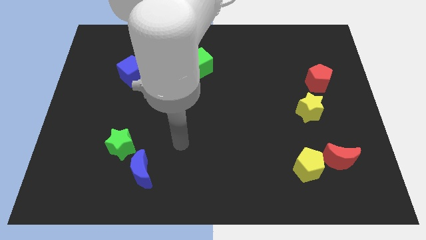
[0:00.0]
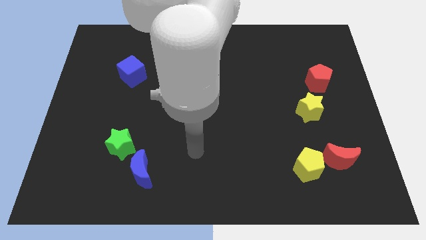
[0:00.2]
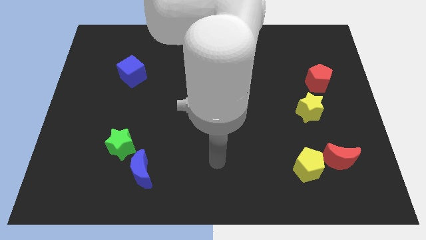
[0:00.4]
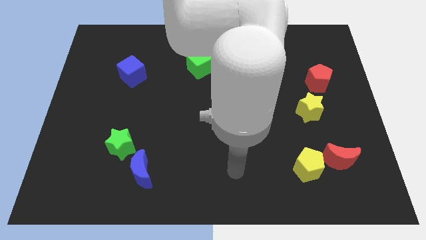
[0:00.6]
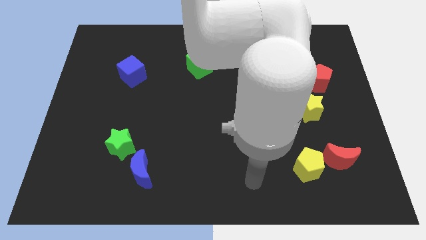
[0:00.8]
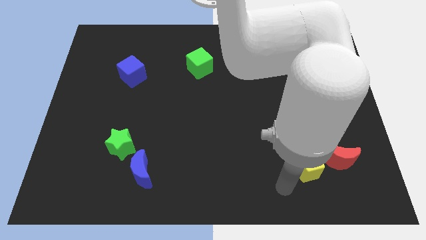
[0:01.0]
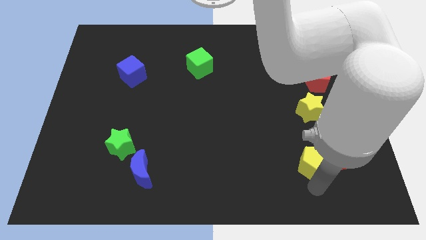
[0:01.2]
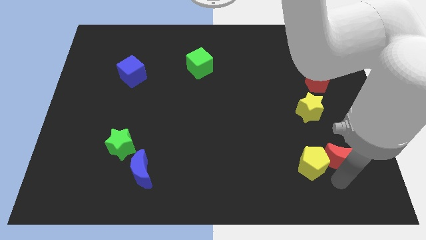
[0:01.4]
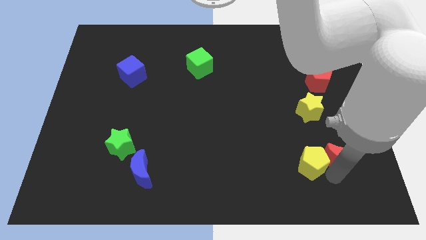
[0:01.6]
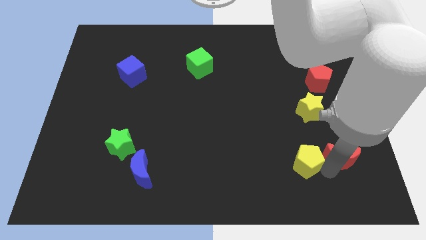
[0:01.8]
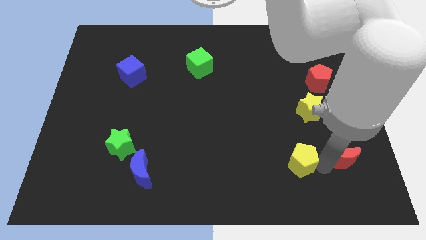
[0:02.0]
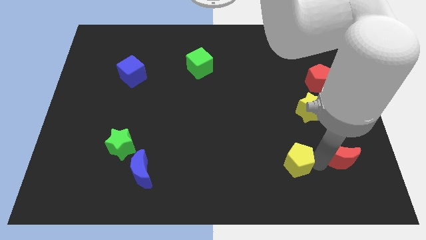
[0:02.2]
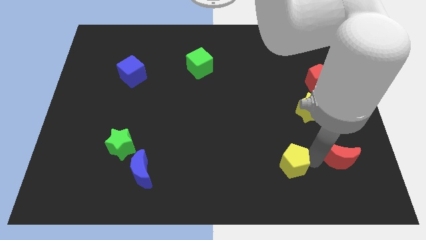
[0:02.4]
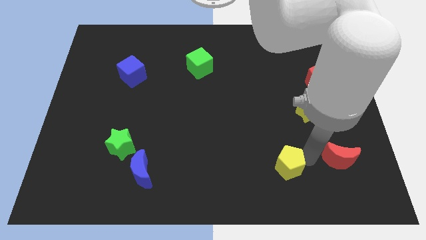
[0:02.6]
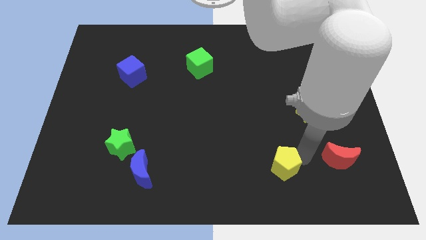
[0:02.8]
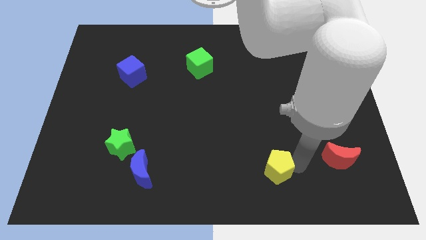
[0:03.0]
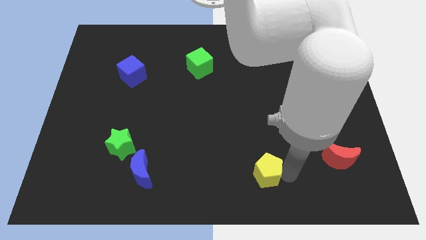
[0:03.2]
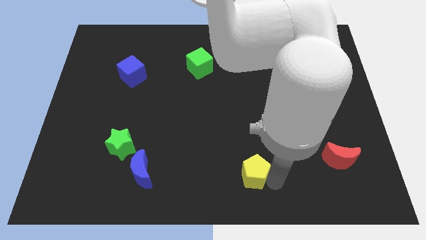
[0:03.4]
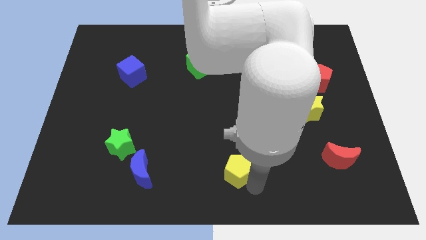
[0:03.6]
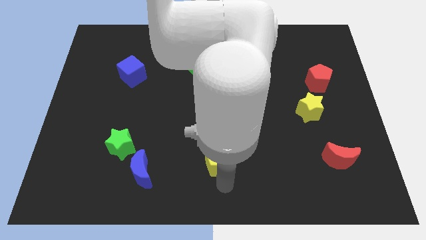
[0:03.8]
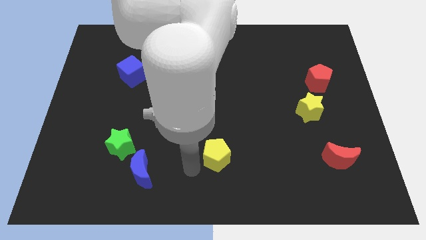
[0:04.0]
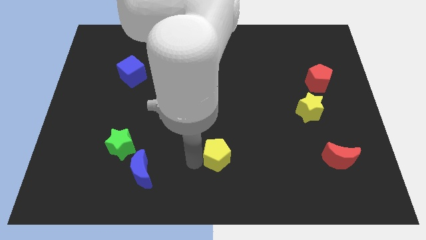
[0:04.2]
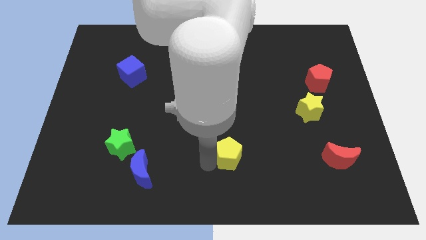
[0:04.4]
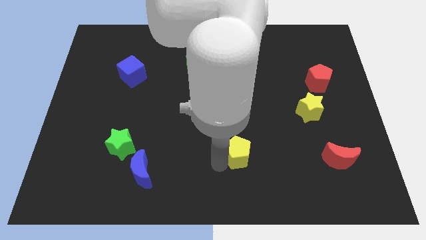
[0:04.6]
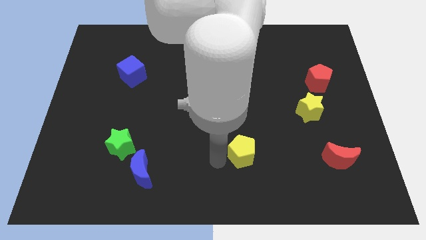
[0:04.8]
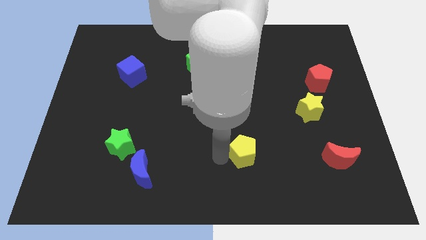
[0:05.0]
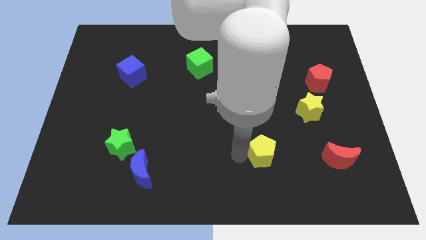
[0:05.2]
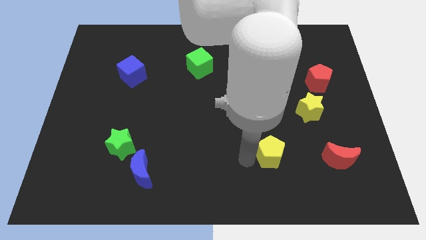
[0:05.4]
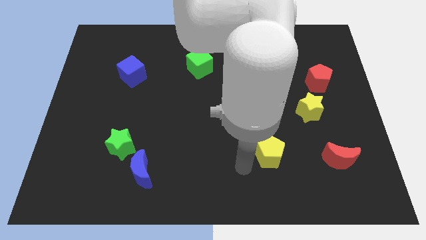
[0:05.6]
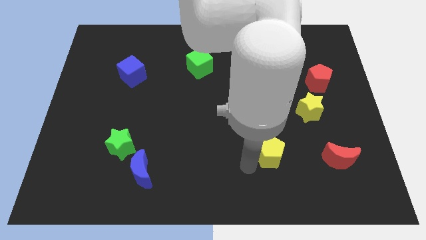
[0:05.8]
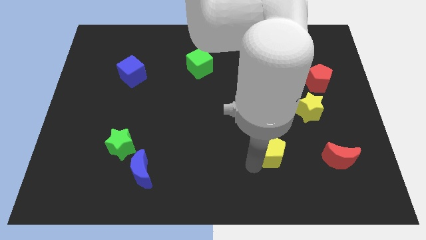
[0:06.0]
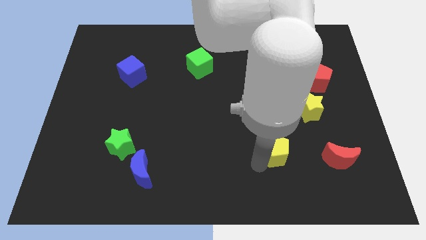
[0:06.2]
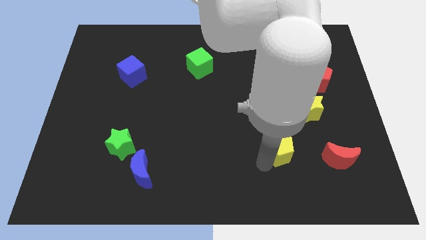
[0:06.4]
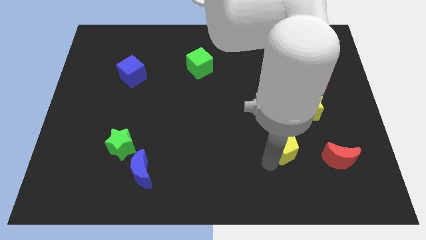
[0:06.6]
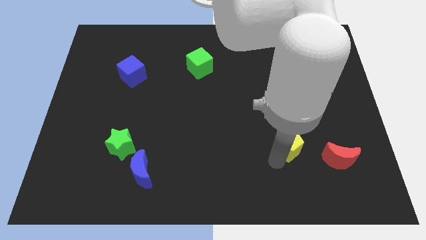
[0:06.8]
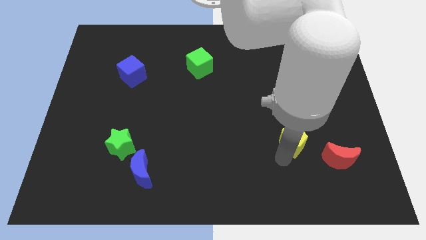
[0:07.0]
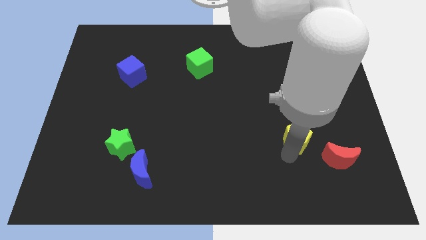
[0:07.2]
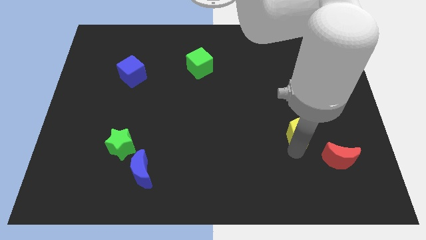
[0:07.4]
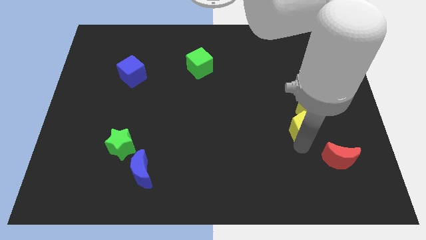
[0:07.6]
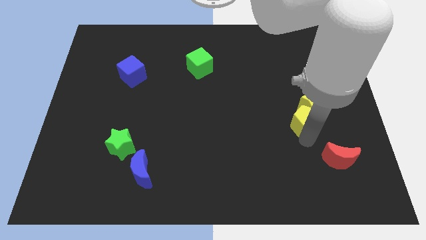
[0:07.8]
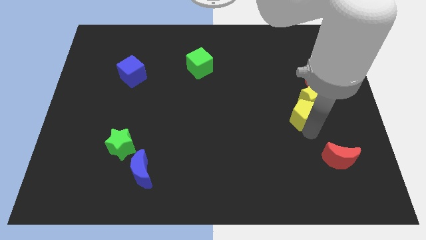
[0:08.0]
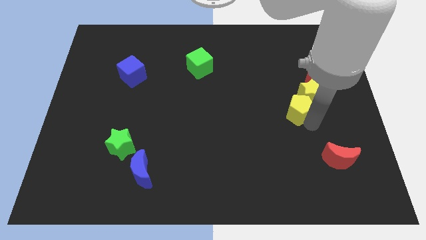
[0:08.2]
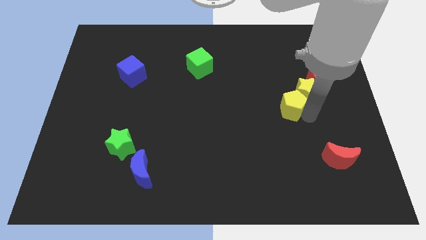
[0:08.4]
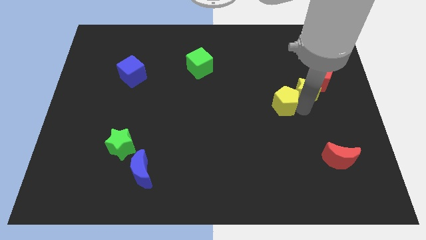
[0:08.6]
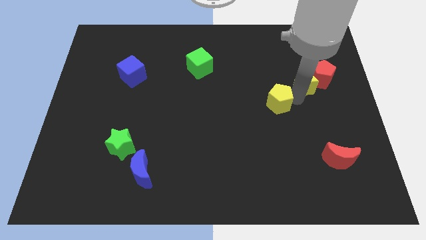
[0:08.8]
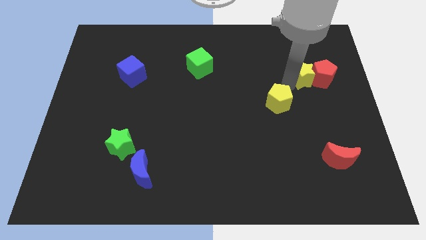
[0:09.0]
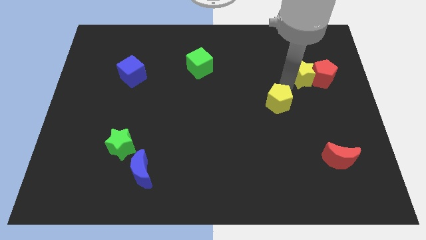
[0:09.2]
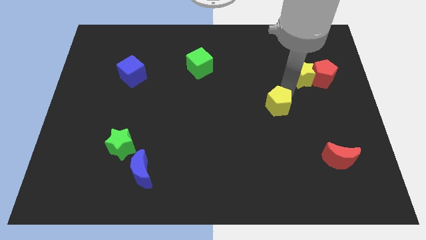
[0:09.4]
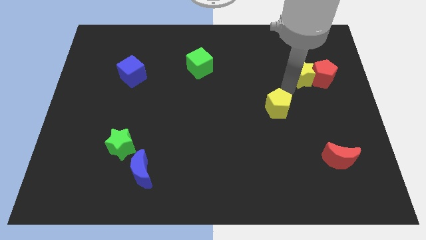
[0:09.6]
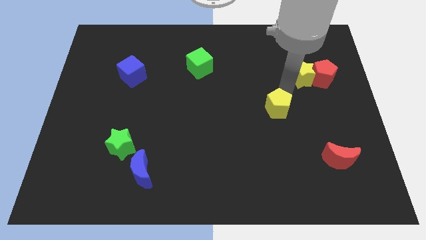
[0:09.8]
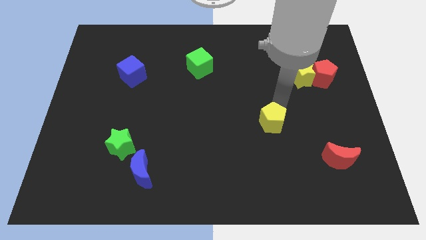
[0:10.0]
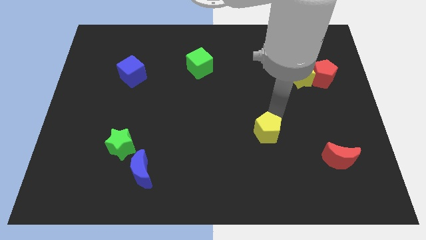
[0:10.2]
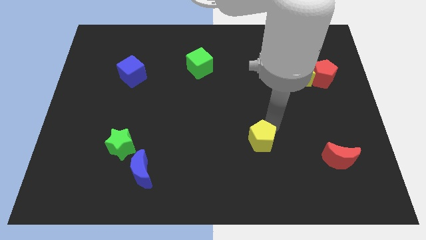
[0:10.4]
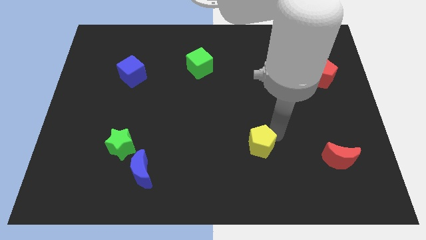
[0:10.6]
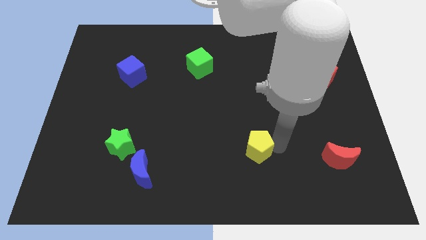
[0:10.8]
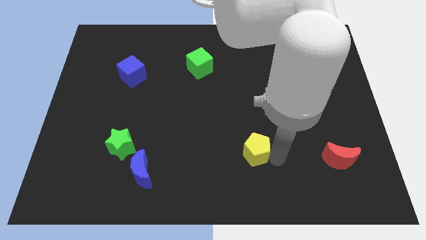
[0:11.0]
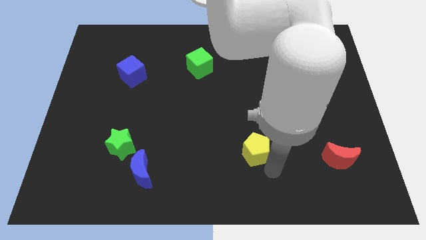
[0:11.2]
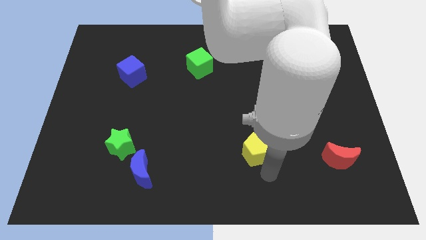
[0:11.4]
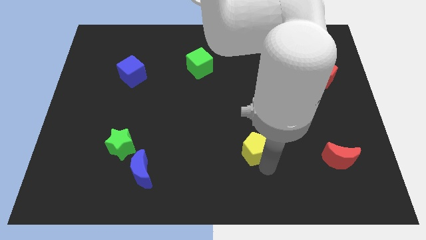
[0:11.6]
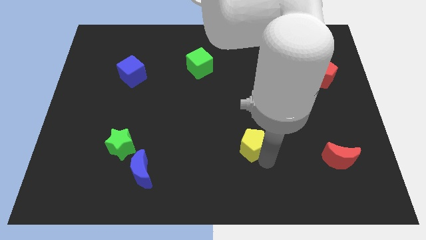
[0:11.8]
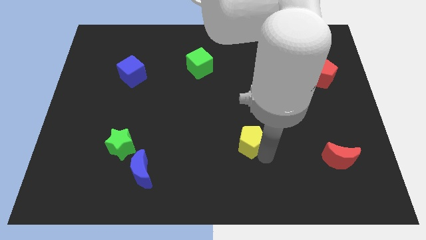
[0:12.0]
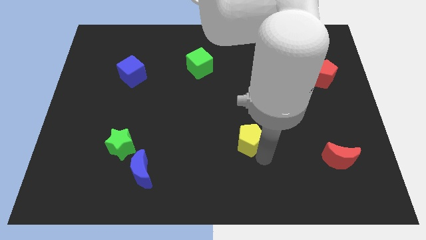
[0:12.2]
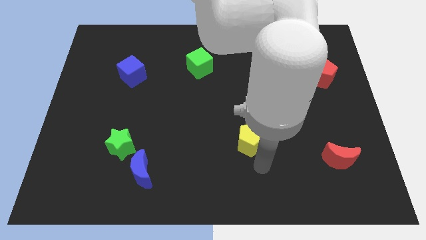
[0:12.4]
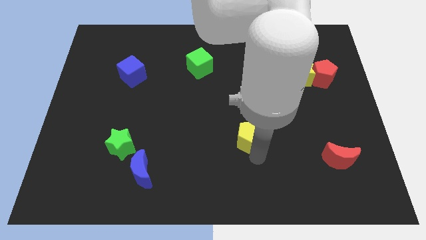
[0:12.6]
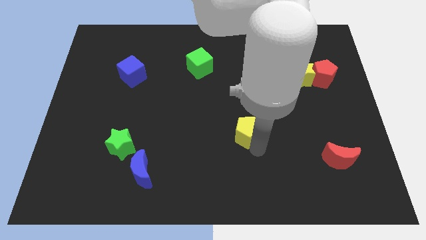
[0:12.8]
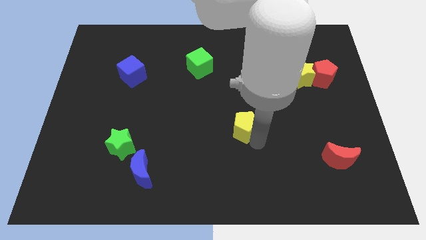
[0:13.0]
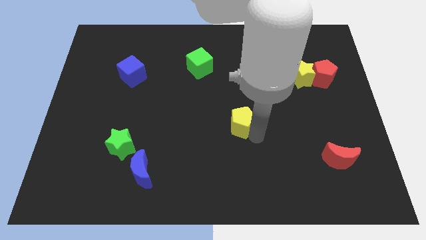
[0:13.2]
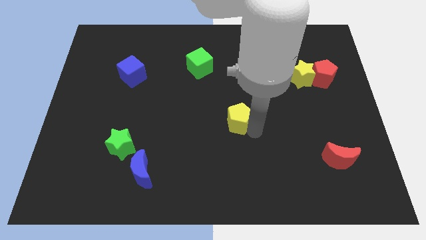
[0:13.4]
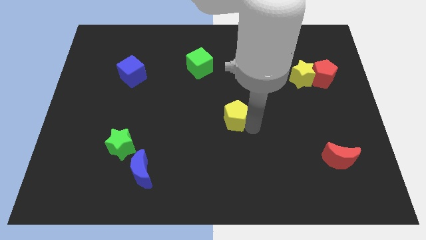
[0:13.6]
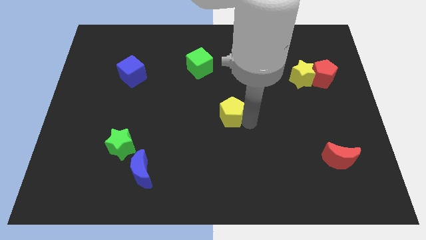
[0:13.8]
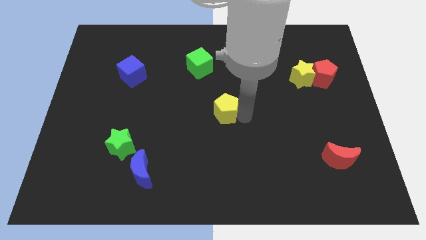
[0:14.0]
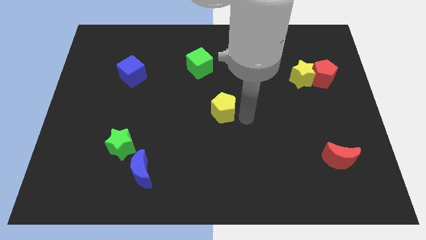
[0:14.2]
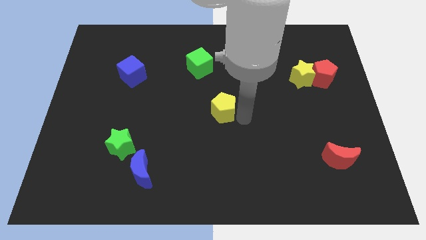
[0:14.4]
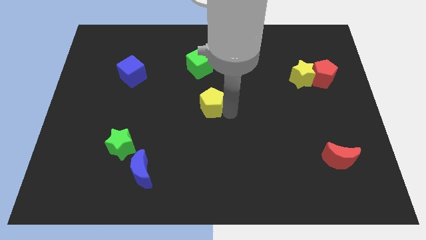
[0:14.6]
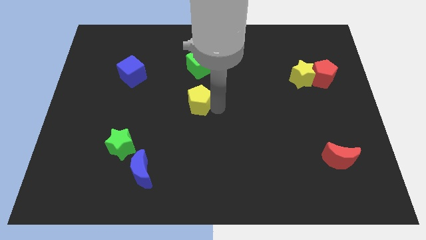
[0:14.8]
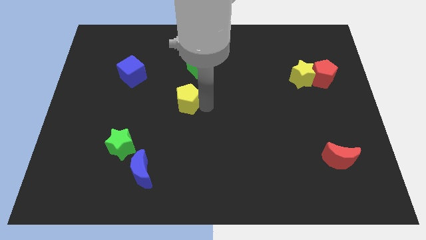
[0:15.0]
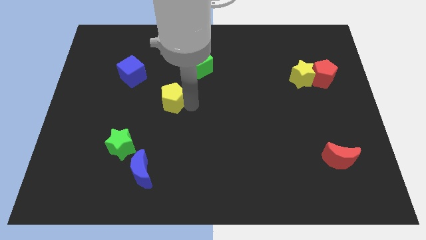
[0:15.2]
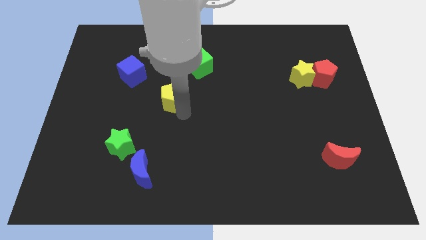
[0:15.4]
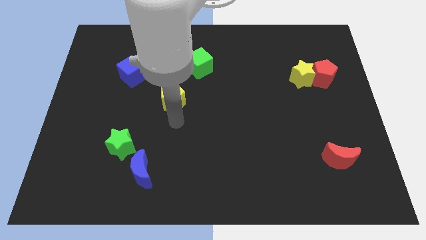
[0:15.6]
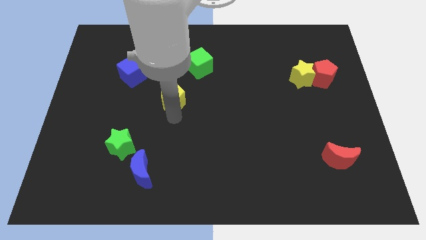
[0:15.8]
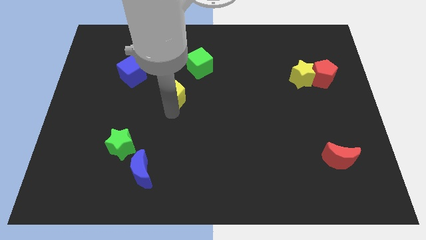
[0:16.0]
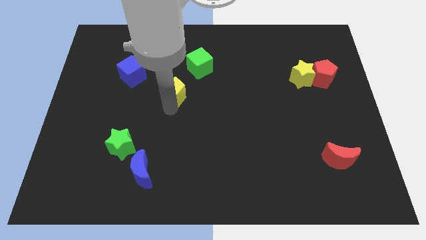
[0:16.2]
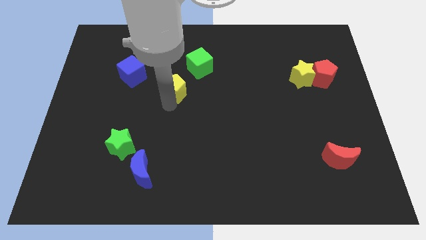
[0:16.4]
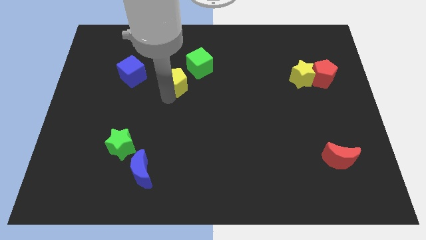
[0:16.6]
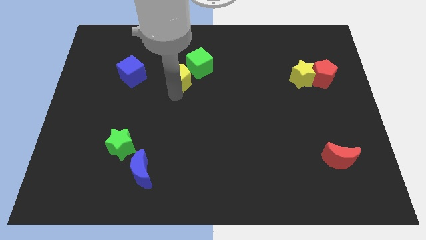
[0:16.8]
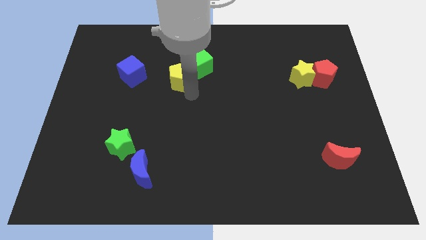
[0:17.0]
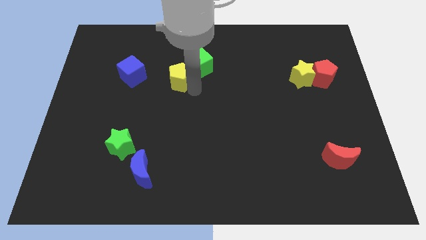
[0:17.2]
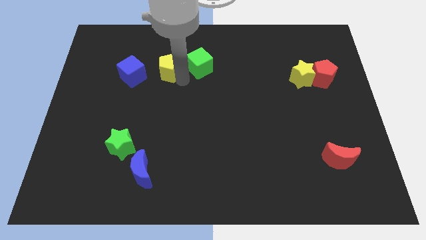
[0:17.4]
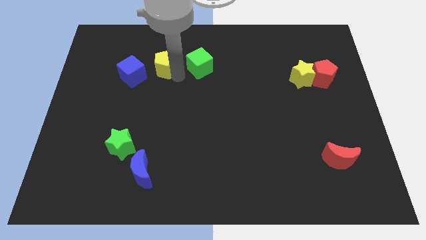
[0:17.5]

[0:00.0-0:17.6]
move the yellow pentagon to the top right side of the blue cube

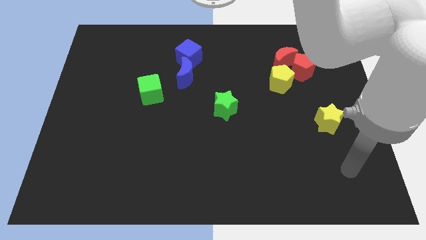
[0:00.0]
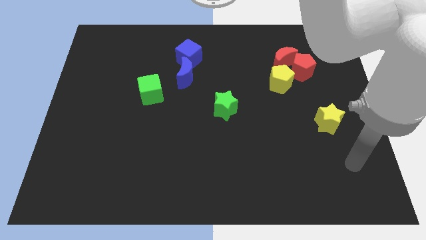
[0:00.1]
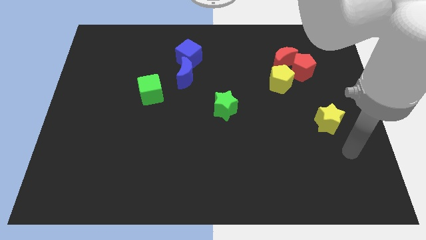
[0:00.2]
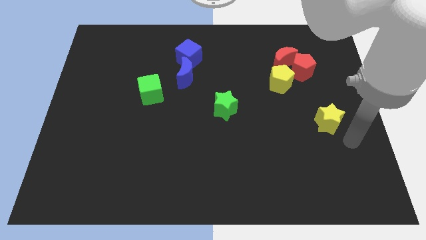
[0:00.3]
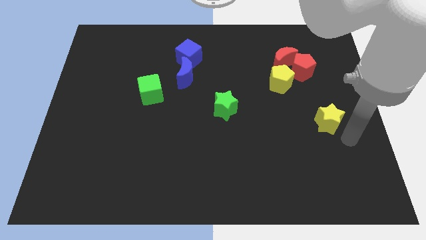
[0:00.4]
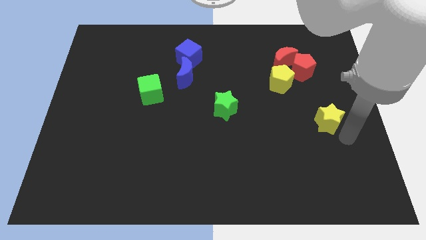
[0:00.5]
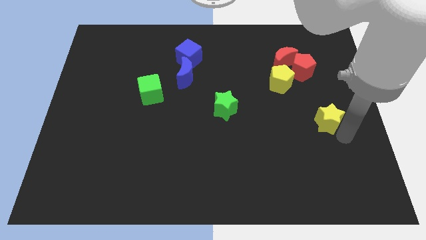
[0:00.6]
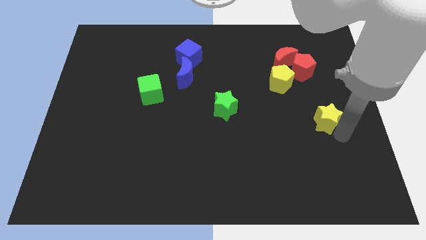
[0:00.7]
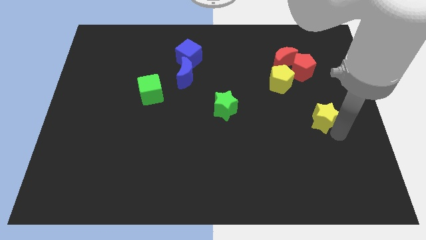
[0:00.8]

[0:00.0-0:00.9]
push the yellow star to the bottom of the red pentagon
